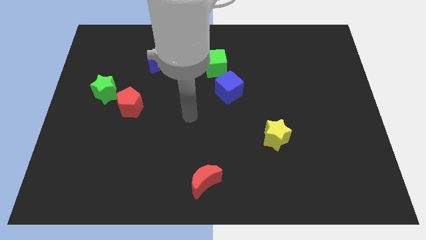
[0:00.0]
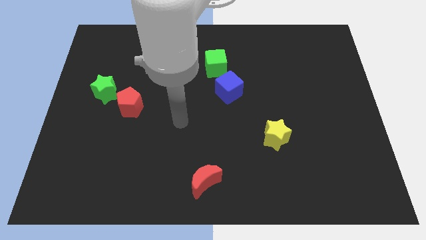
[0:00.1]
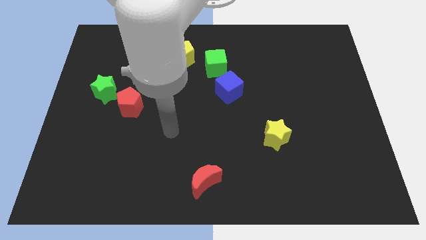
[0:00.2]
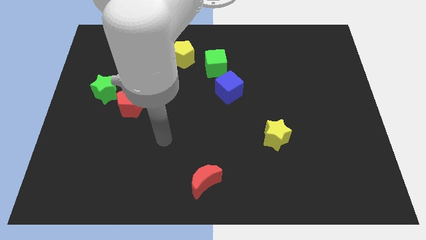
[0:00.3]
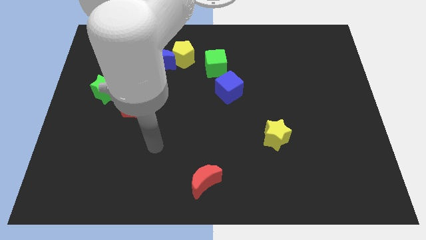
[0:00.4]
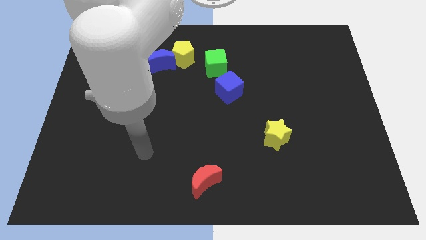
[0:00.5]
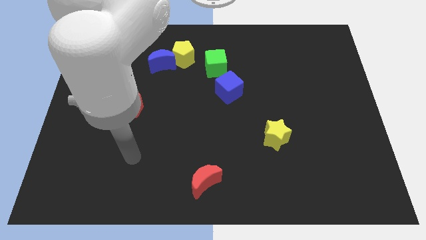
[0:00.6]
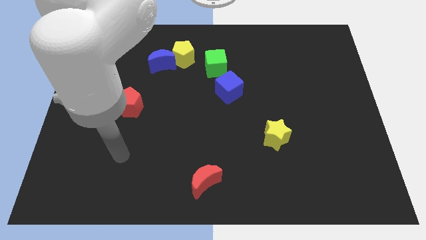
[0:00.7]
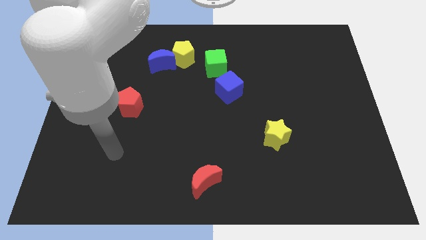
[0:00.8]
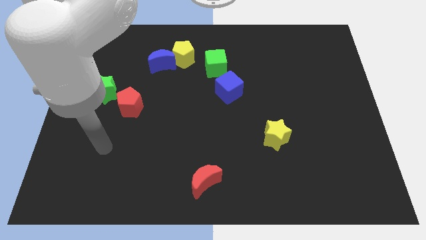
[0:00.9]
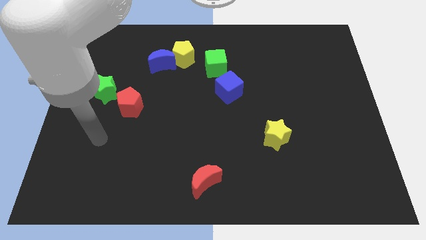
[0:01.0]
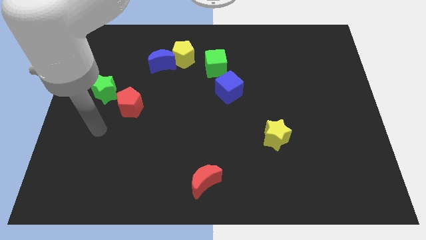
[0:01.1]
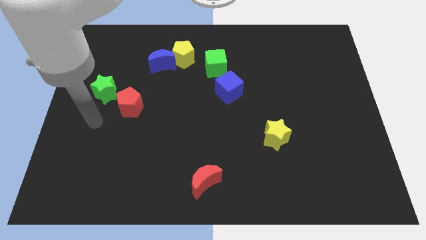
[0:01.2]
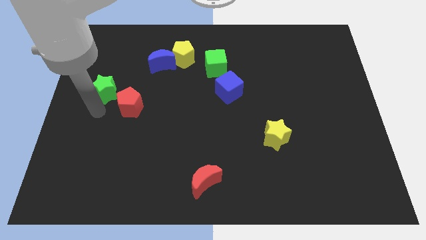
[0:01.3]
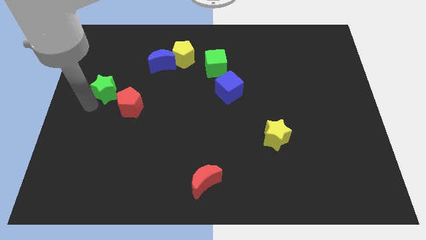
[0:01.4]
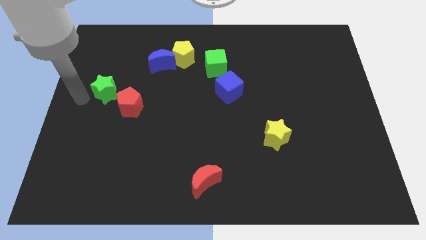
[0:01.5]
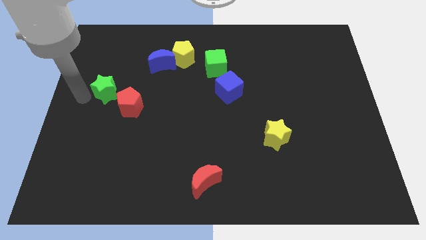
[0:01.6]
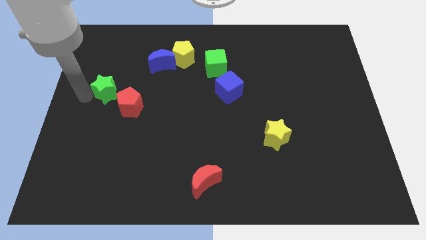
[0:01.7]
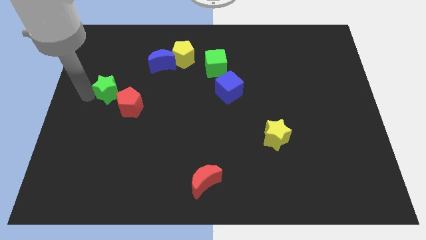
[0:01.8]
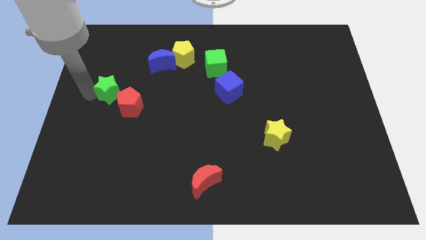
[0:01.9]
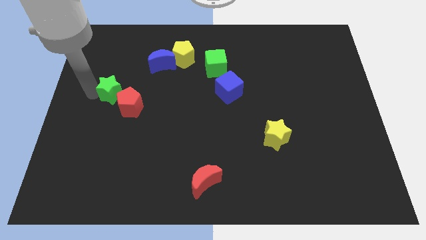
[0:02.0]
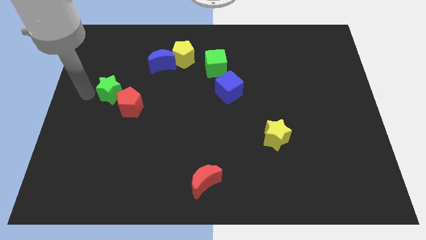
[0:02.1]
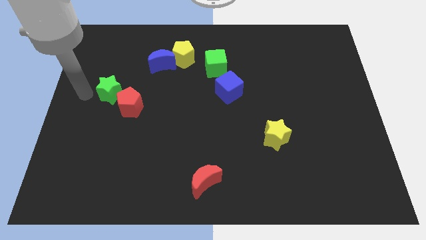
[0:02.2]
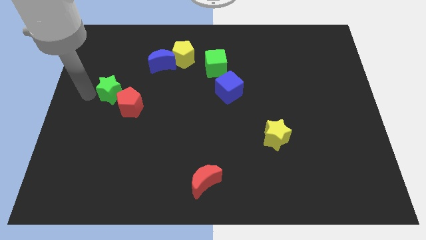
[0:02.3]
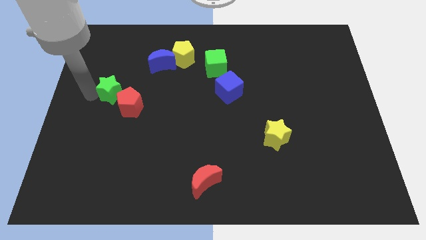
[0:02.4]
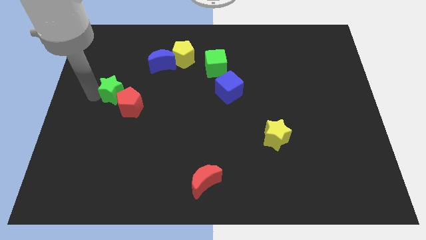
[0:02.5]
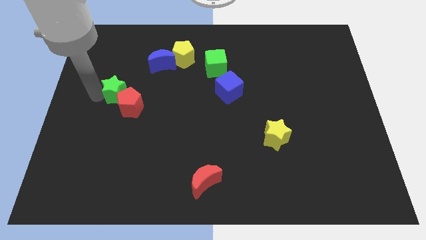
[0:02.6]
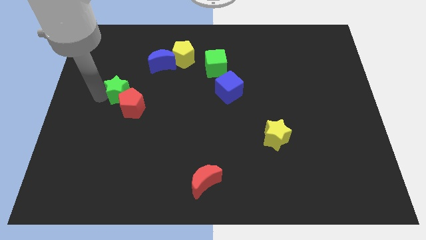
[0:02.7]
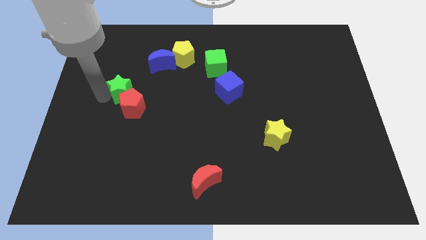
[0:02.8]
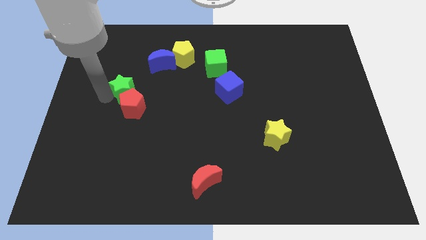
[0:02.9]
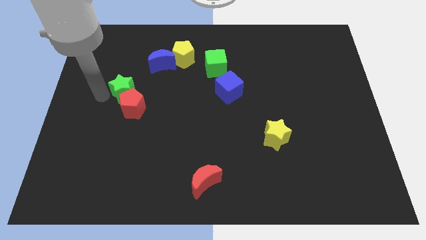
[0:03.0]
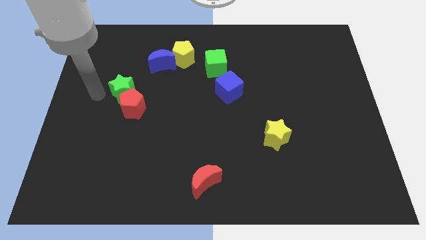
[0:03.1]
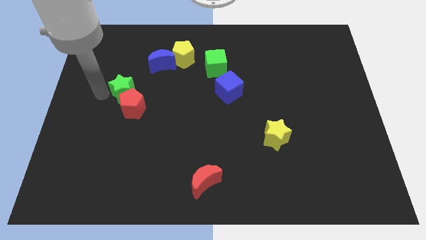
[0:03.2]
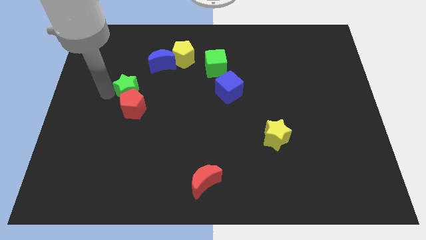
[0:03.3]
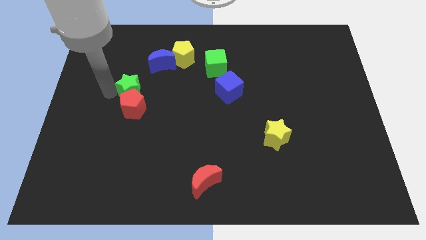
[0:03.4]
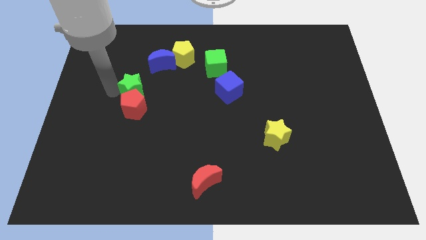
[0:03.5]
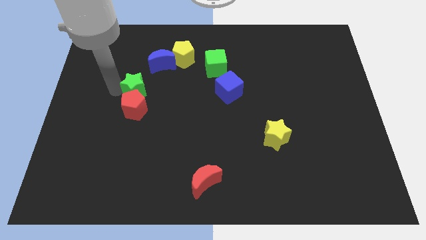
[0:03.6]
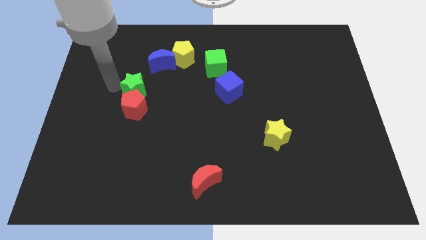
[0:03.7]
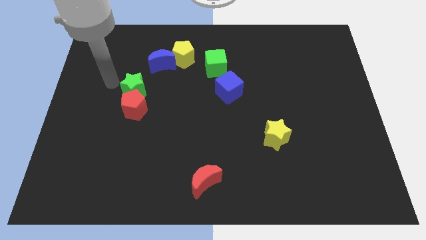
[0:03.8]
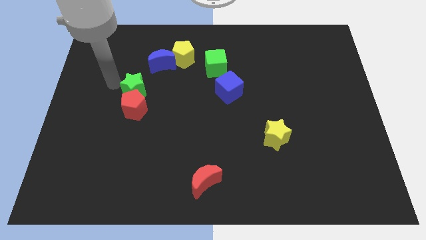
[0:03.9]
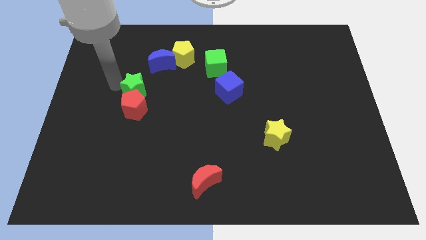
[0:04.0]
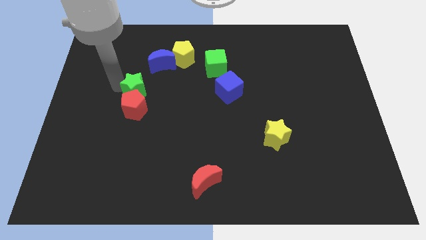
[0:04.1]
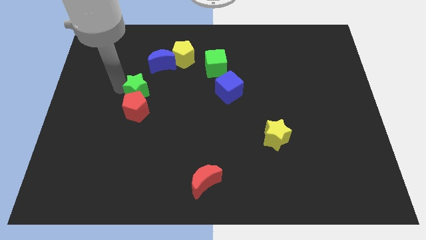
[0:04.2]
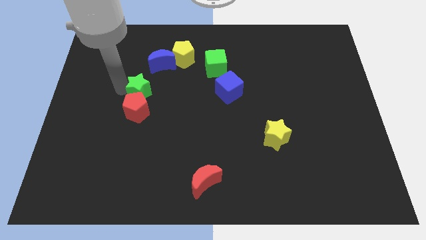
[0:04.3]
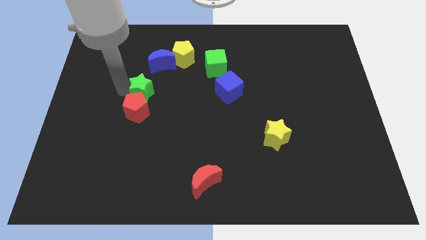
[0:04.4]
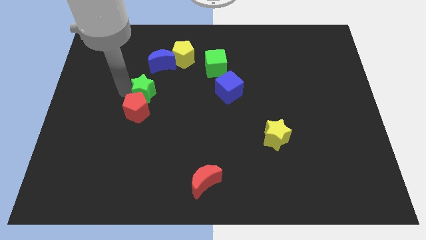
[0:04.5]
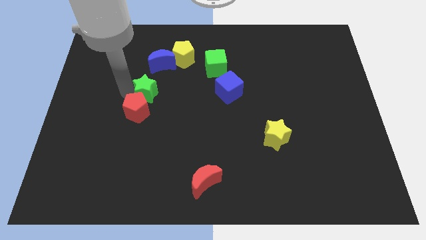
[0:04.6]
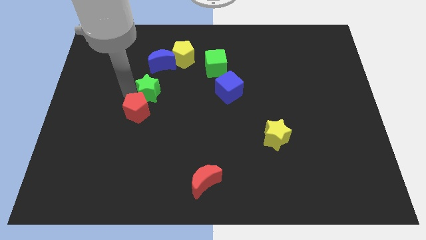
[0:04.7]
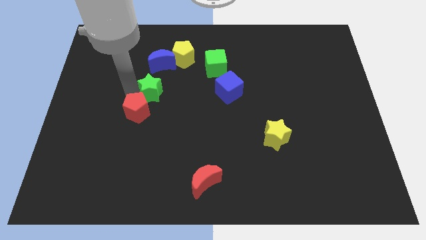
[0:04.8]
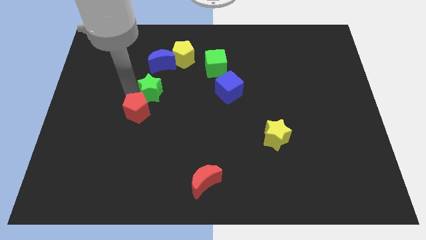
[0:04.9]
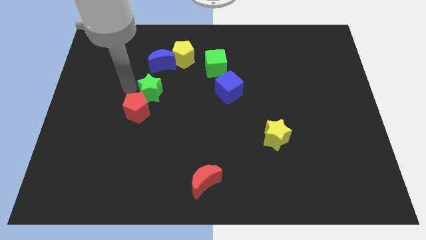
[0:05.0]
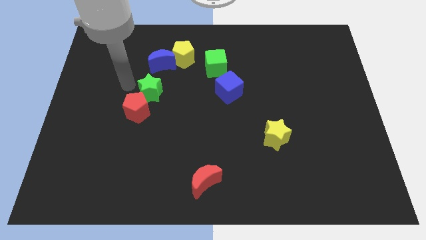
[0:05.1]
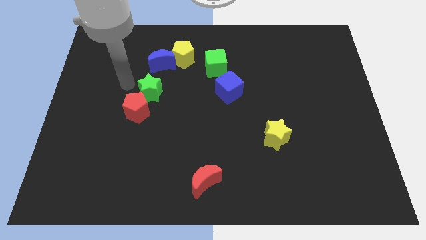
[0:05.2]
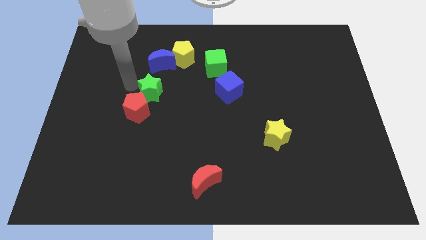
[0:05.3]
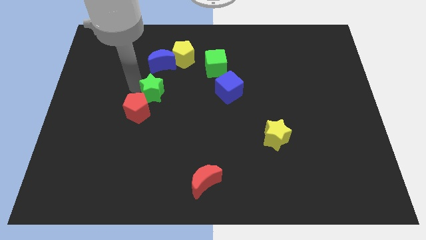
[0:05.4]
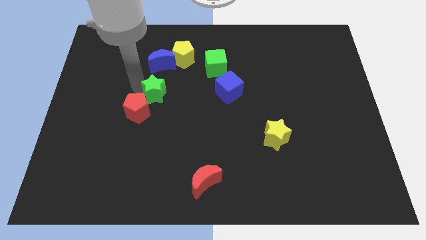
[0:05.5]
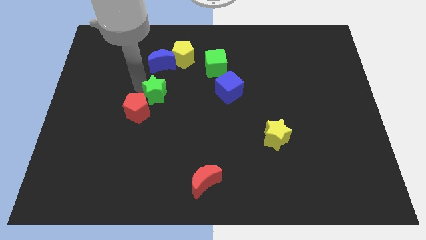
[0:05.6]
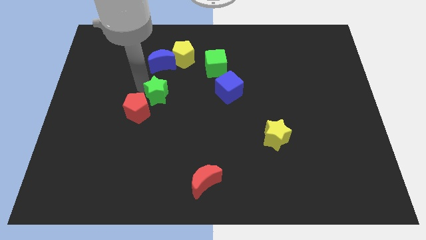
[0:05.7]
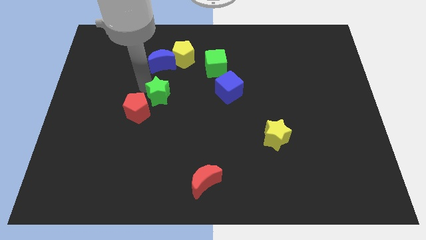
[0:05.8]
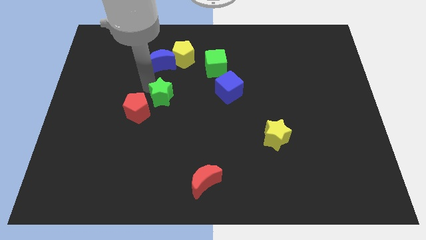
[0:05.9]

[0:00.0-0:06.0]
push the green star to the center of the board

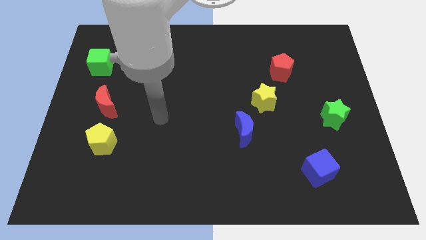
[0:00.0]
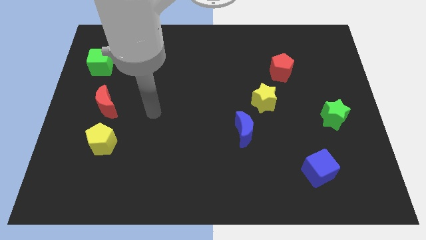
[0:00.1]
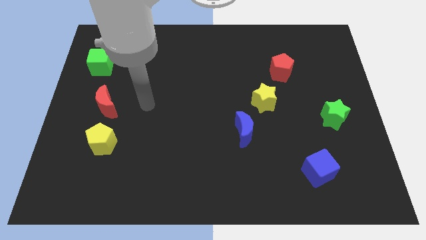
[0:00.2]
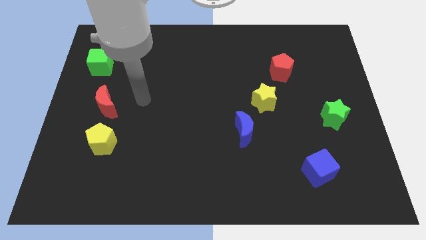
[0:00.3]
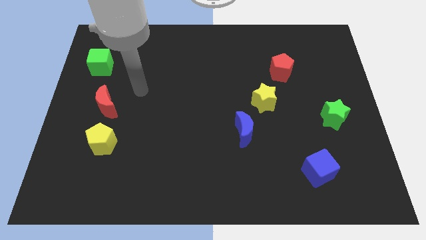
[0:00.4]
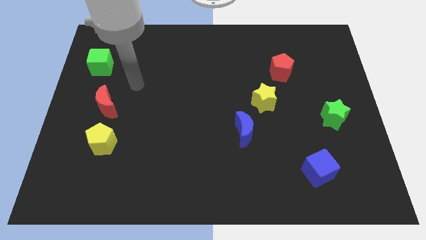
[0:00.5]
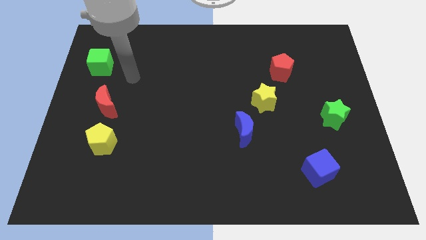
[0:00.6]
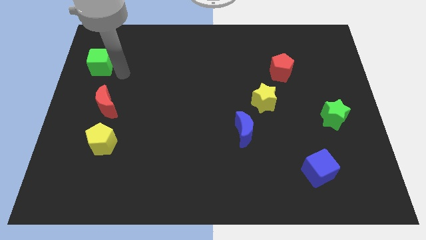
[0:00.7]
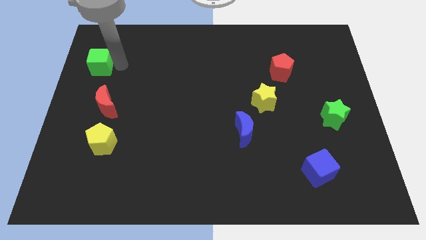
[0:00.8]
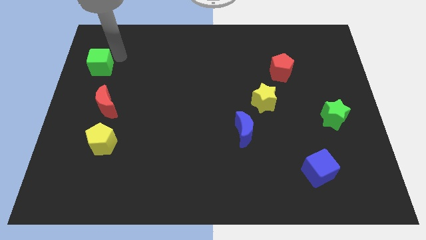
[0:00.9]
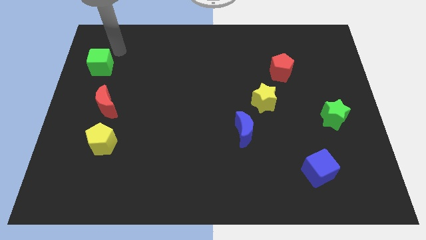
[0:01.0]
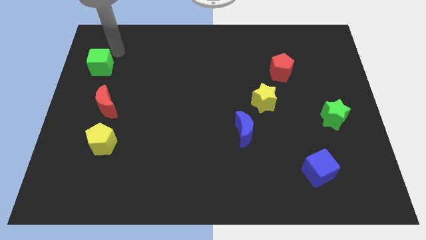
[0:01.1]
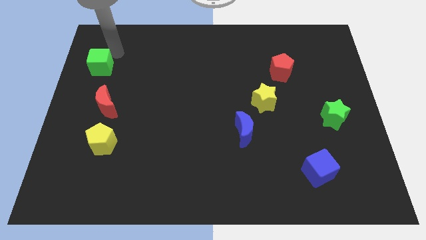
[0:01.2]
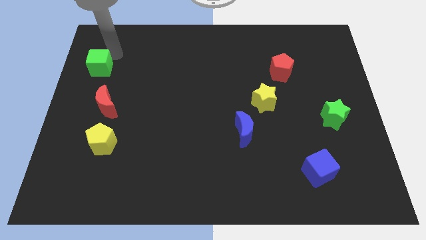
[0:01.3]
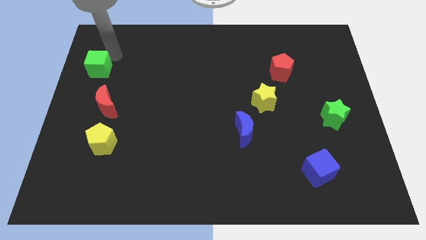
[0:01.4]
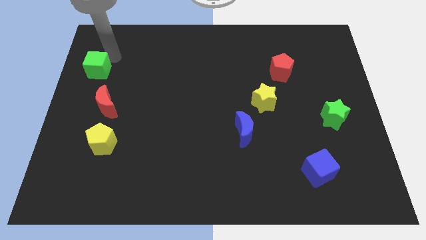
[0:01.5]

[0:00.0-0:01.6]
put the green cube to the left side of the board
